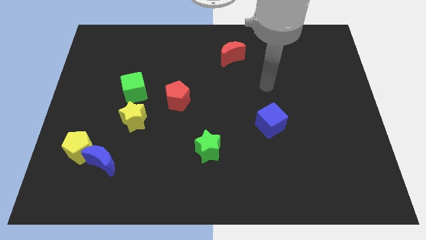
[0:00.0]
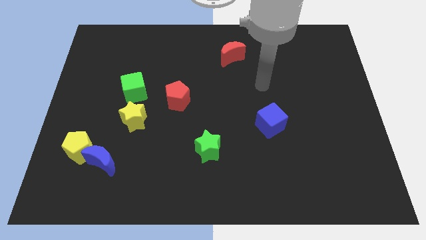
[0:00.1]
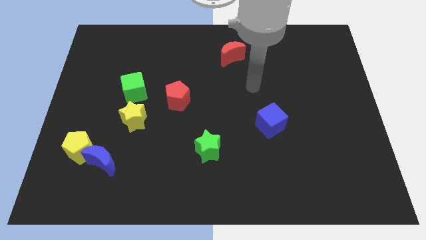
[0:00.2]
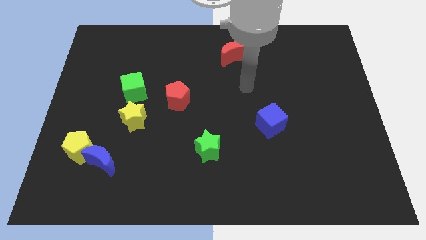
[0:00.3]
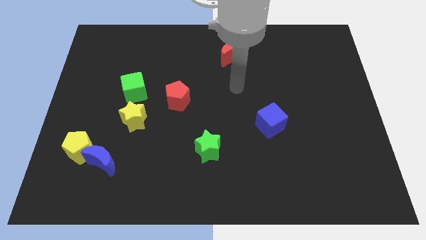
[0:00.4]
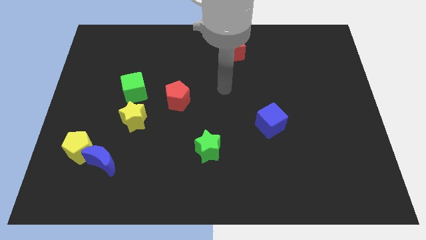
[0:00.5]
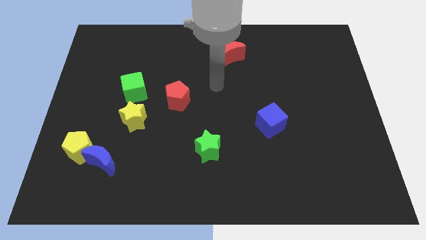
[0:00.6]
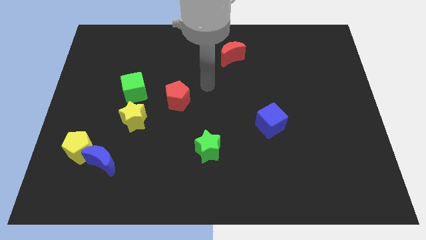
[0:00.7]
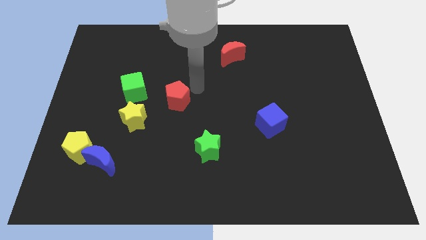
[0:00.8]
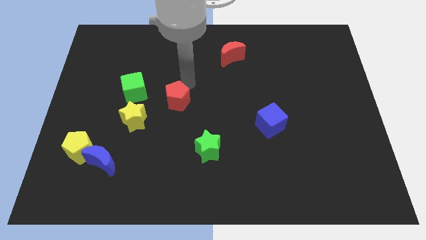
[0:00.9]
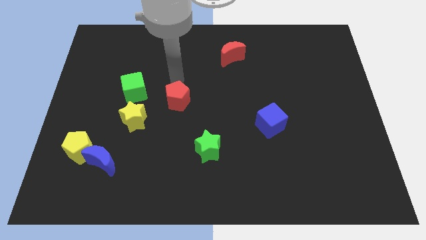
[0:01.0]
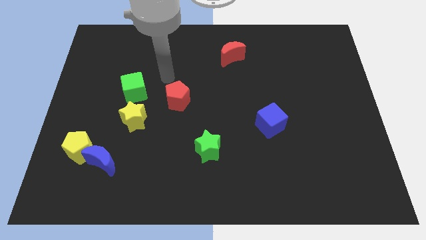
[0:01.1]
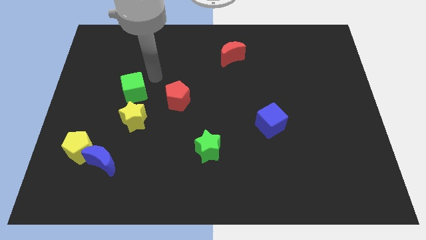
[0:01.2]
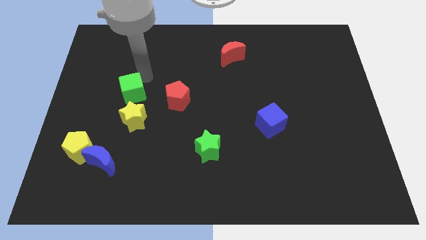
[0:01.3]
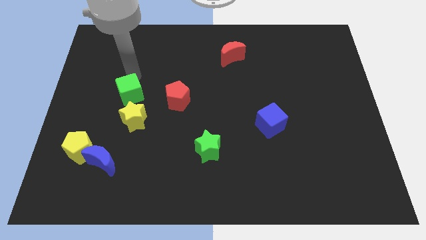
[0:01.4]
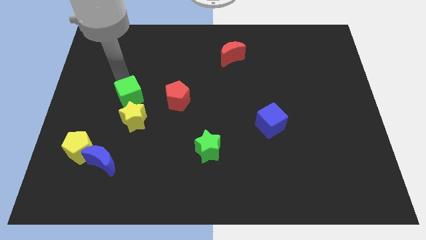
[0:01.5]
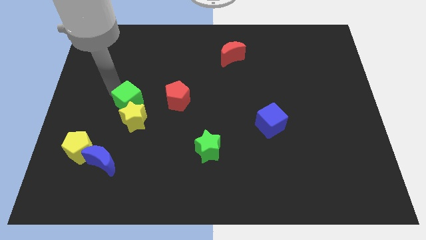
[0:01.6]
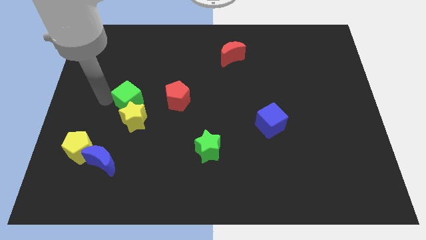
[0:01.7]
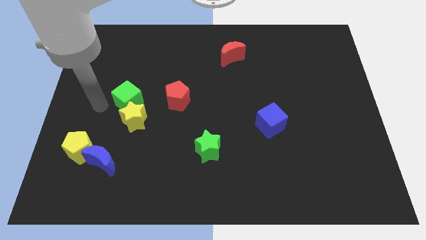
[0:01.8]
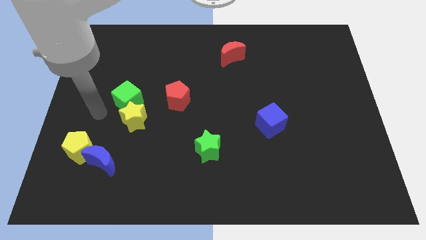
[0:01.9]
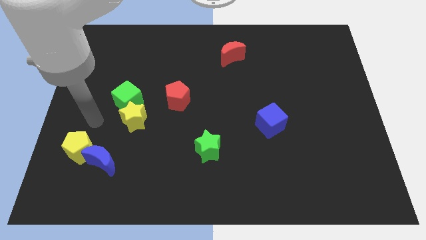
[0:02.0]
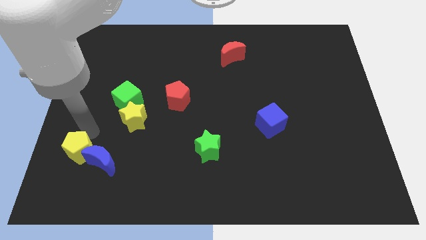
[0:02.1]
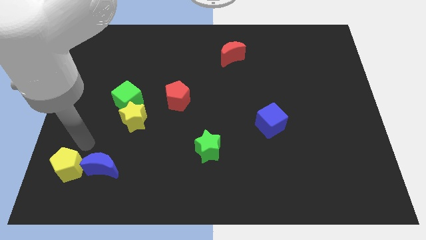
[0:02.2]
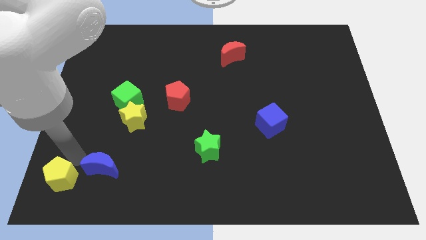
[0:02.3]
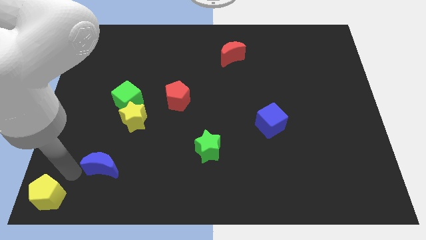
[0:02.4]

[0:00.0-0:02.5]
move the blue moon away from the yellow pentagon

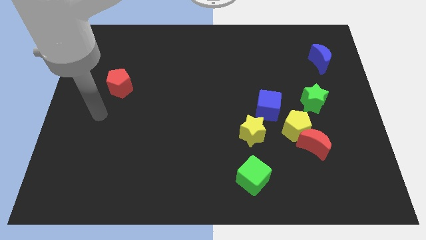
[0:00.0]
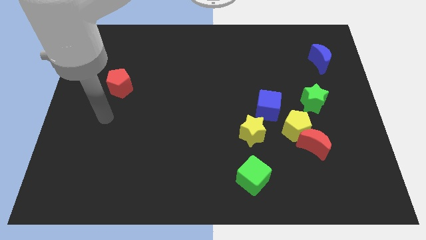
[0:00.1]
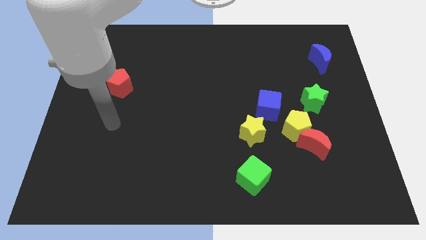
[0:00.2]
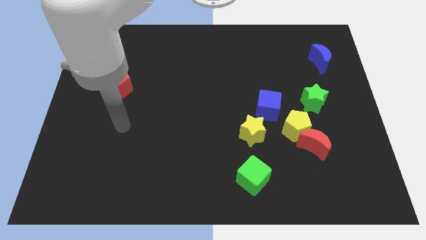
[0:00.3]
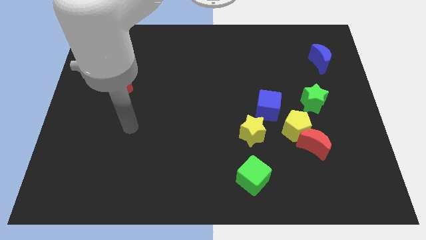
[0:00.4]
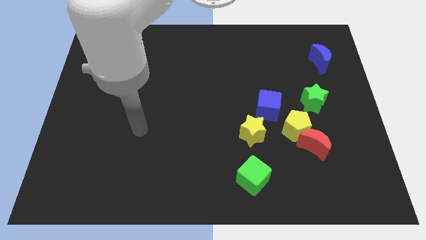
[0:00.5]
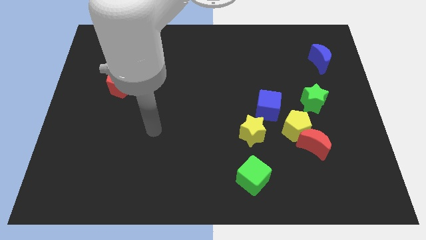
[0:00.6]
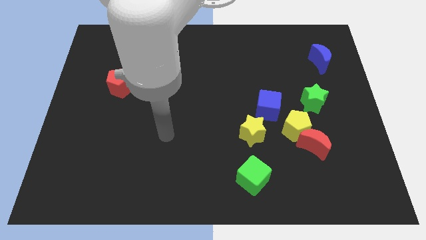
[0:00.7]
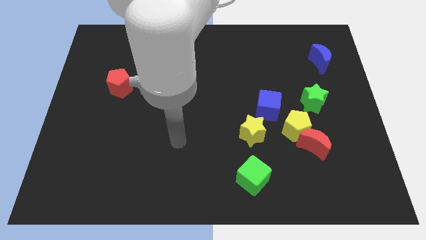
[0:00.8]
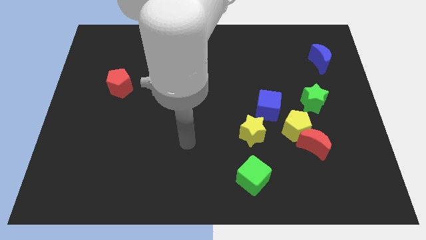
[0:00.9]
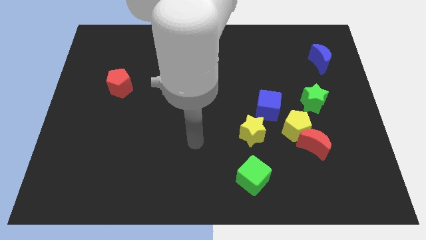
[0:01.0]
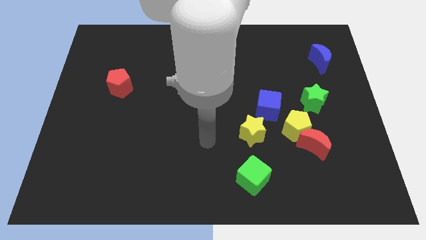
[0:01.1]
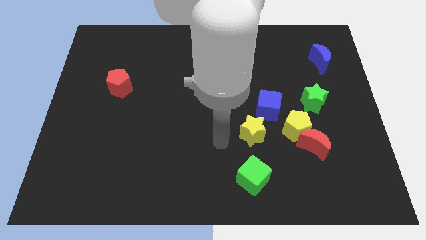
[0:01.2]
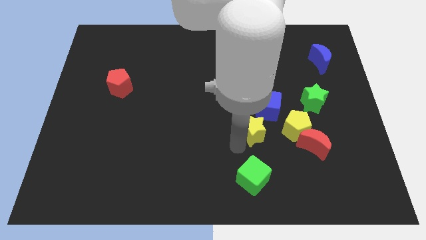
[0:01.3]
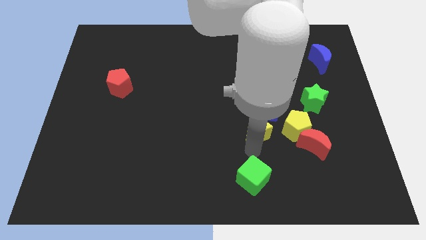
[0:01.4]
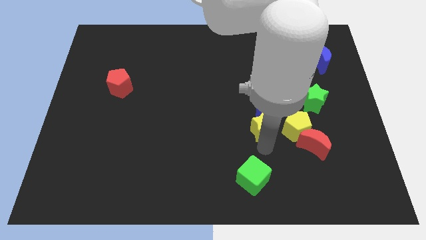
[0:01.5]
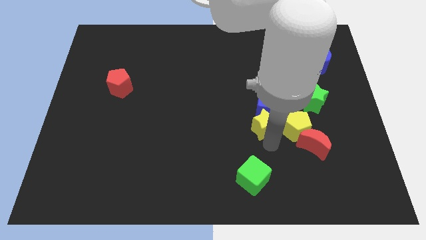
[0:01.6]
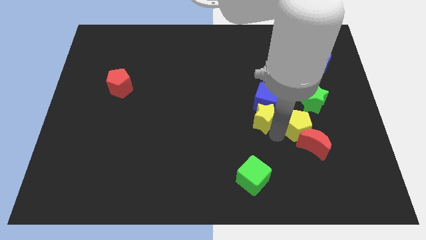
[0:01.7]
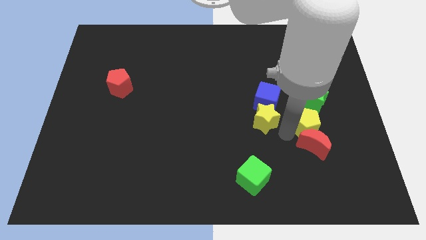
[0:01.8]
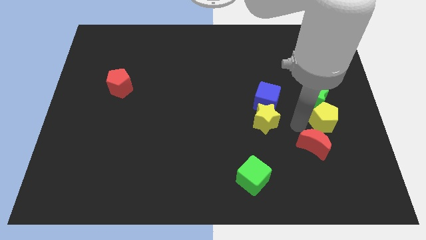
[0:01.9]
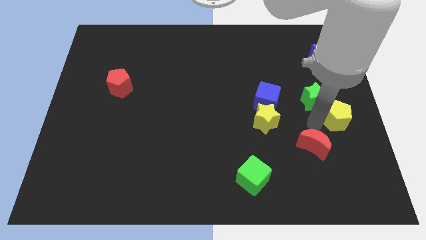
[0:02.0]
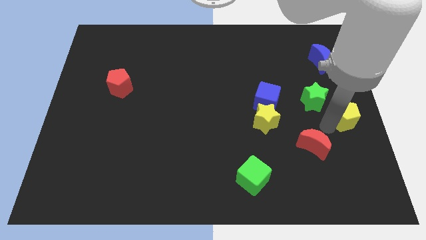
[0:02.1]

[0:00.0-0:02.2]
pull the red moon apart from the yellow pentagon

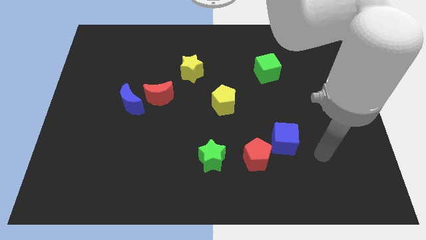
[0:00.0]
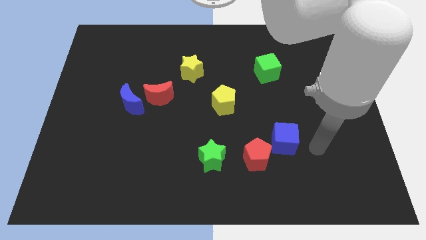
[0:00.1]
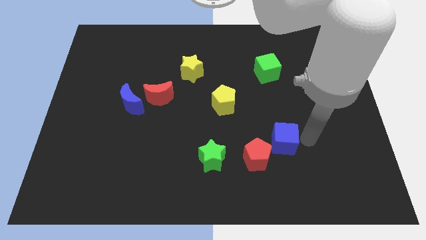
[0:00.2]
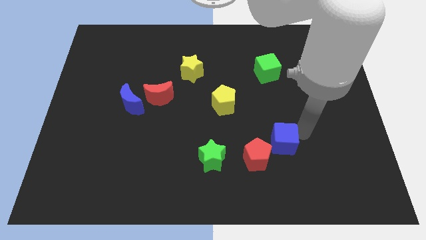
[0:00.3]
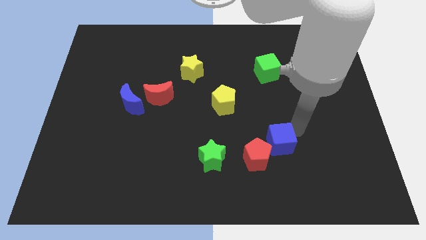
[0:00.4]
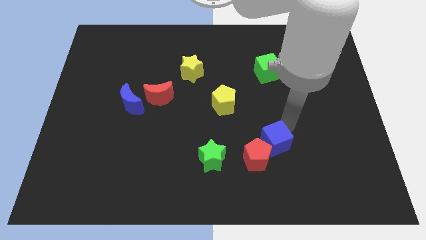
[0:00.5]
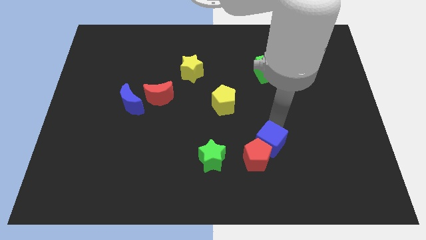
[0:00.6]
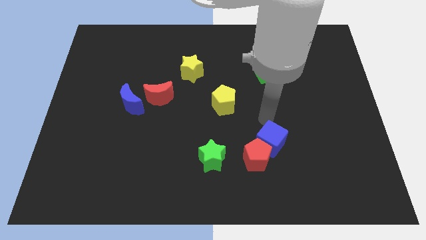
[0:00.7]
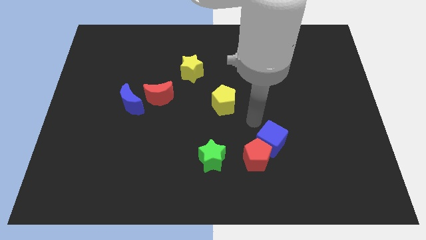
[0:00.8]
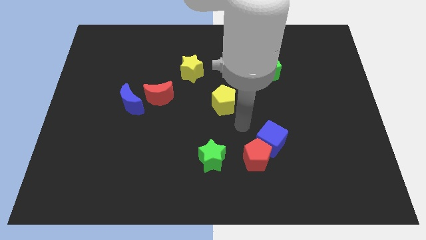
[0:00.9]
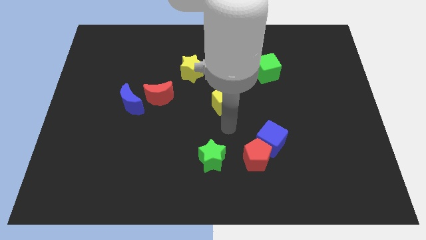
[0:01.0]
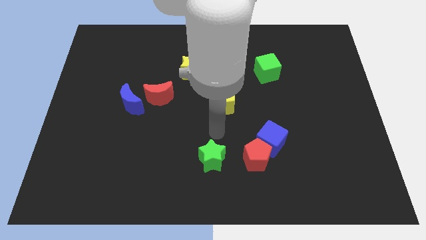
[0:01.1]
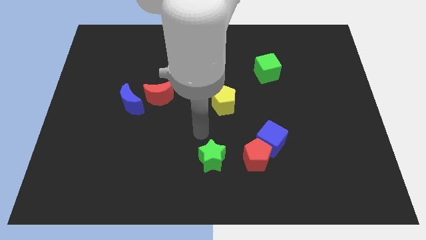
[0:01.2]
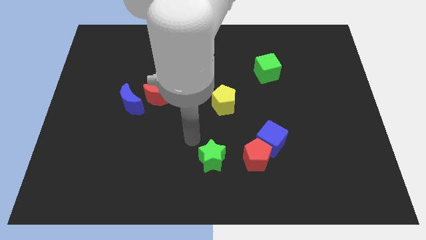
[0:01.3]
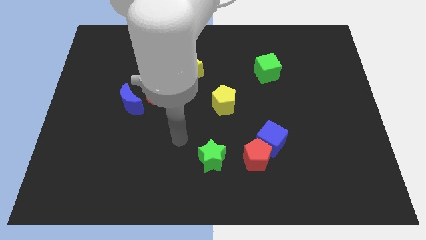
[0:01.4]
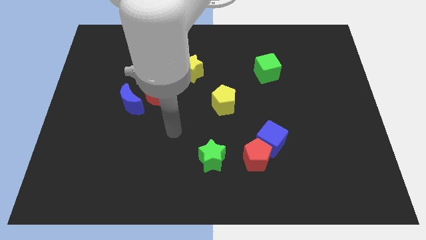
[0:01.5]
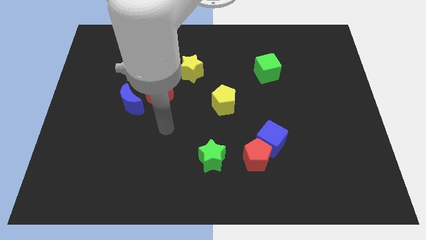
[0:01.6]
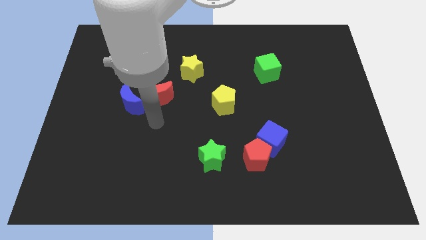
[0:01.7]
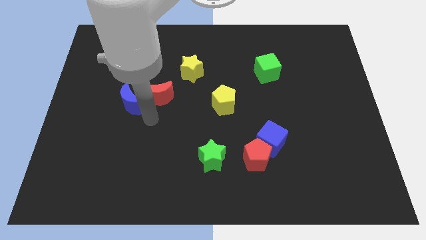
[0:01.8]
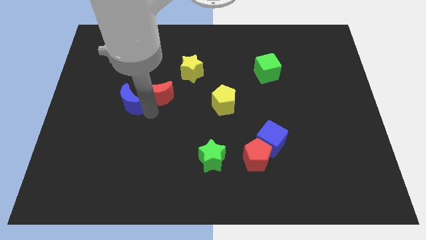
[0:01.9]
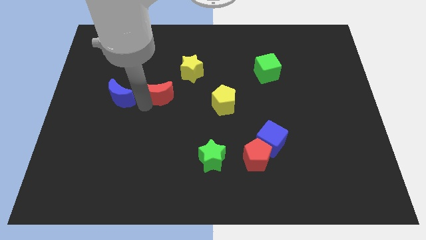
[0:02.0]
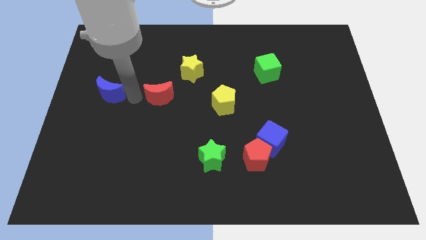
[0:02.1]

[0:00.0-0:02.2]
separate the red moon from the blue moon

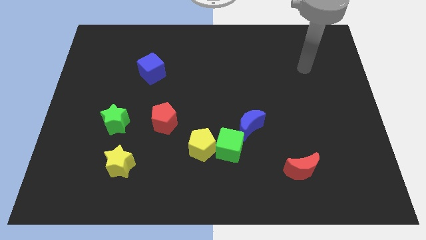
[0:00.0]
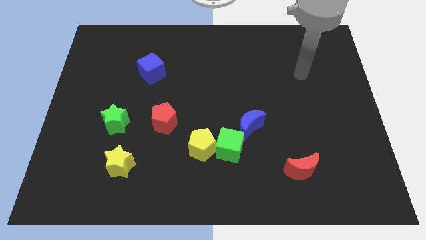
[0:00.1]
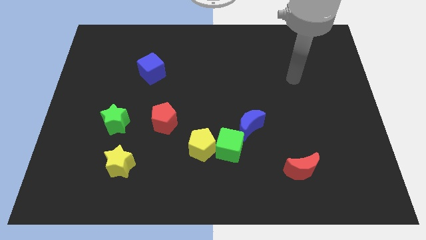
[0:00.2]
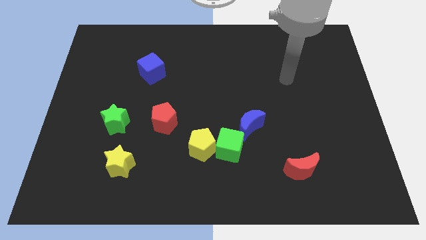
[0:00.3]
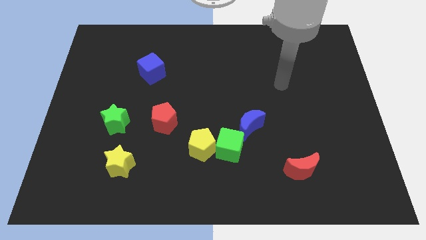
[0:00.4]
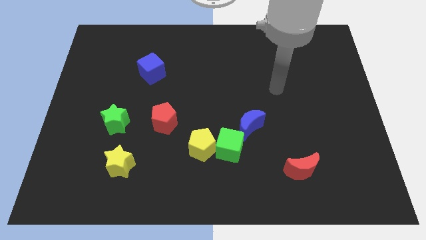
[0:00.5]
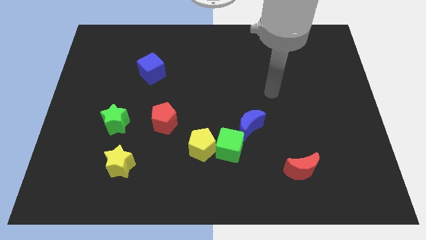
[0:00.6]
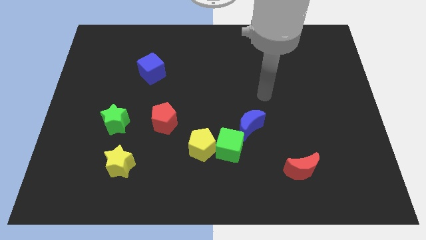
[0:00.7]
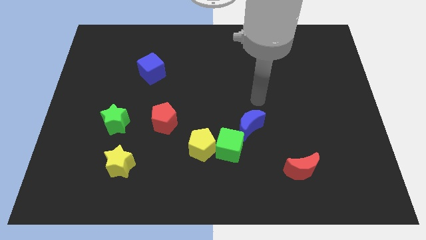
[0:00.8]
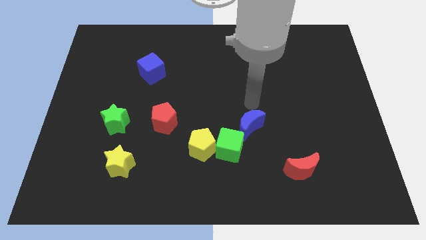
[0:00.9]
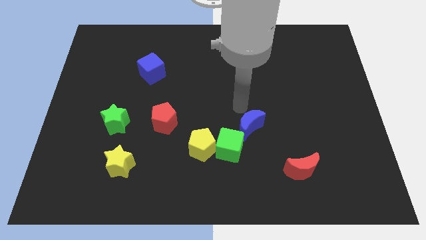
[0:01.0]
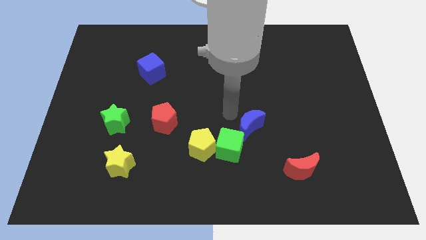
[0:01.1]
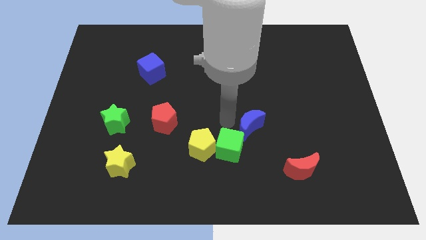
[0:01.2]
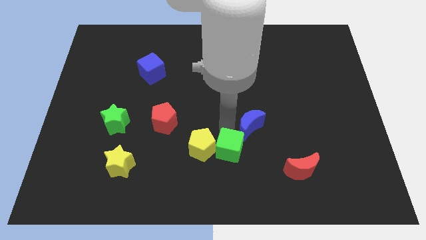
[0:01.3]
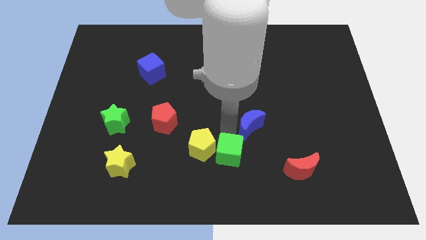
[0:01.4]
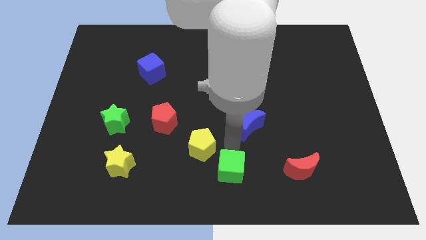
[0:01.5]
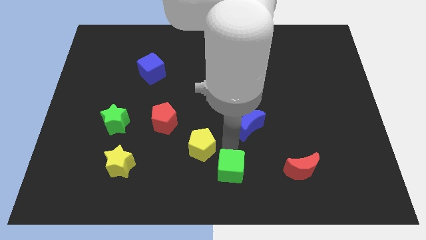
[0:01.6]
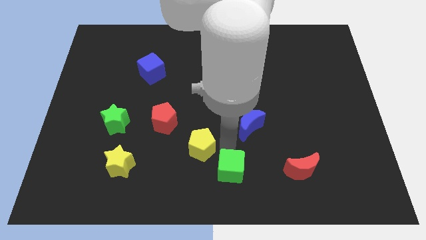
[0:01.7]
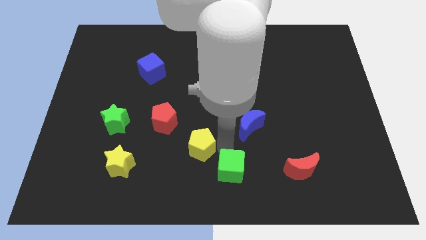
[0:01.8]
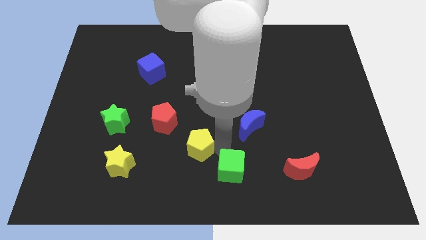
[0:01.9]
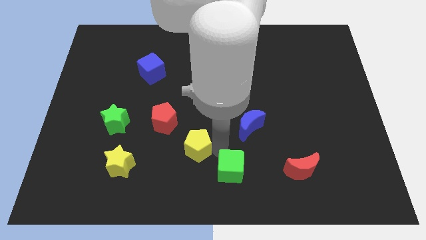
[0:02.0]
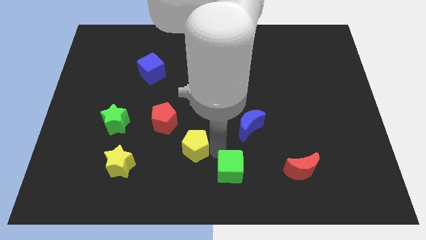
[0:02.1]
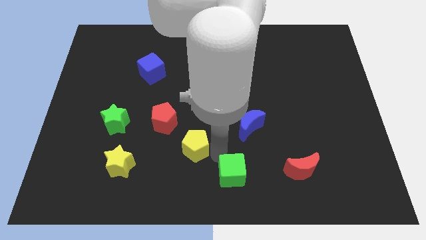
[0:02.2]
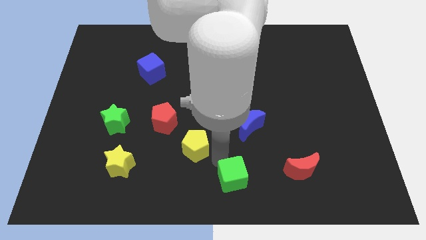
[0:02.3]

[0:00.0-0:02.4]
move the yellow pentagon away from the green cube

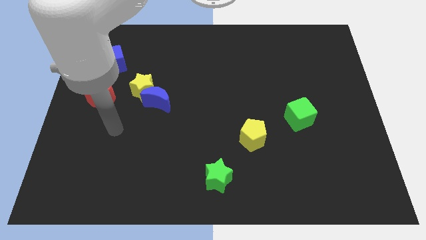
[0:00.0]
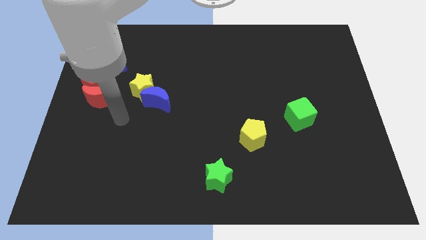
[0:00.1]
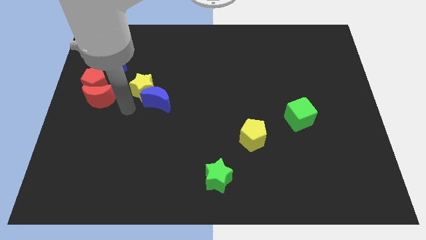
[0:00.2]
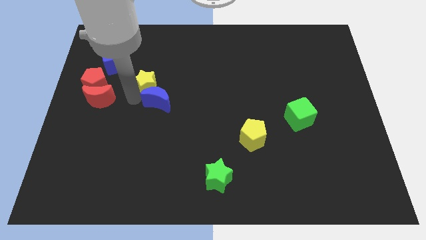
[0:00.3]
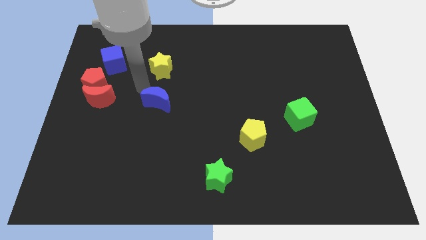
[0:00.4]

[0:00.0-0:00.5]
separate the blue moon from the yellow star
